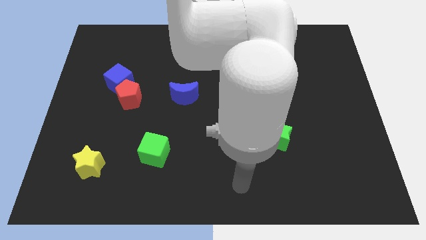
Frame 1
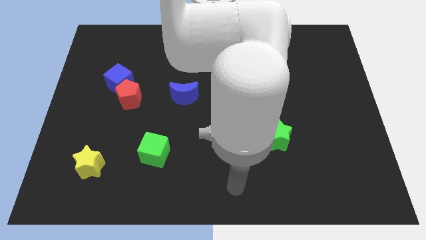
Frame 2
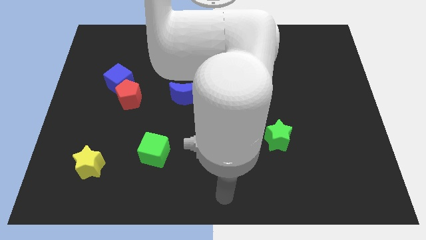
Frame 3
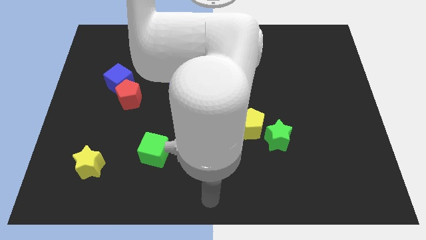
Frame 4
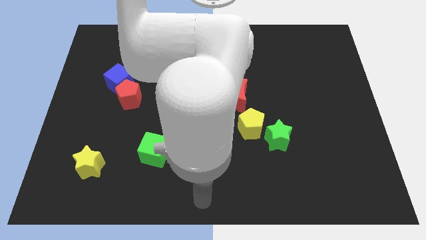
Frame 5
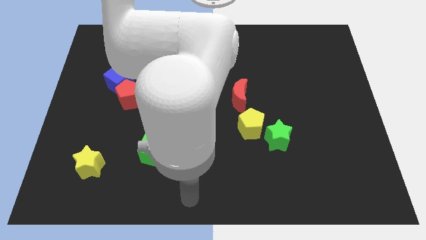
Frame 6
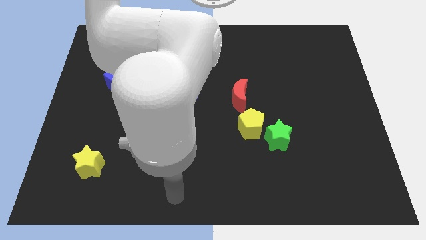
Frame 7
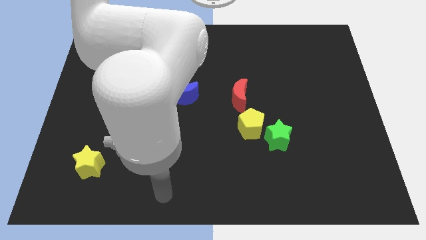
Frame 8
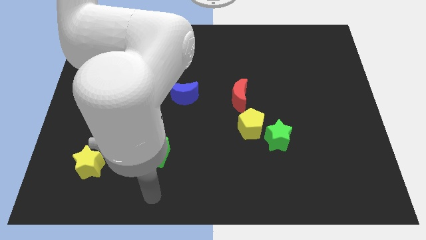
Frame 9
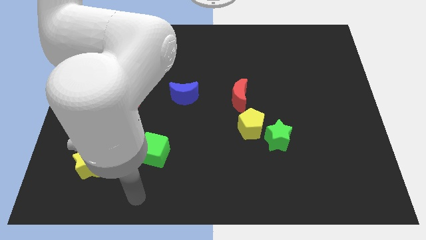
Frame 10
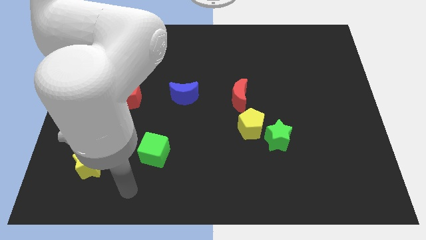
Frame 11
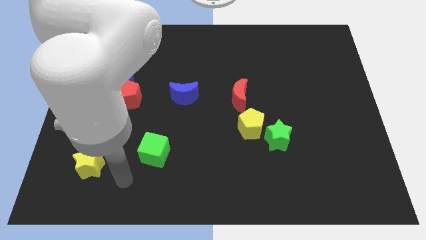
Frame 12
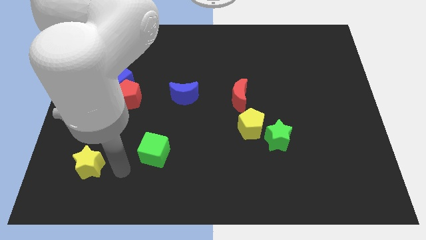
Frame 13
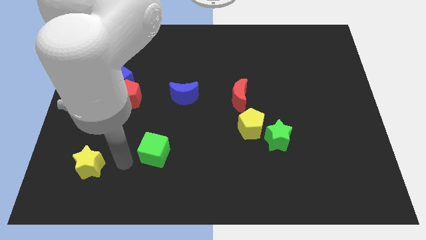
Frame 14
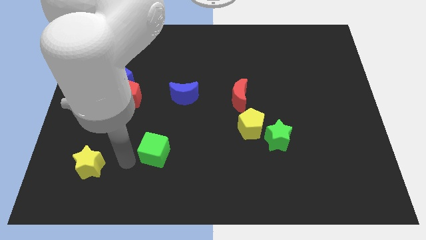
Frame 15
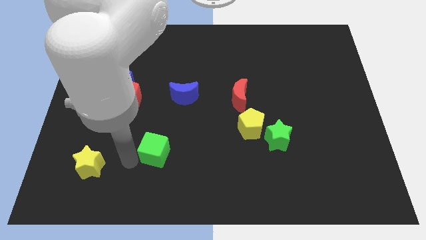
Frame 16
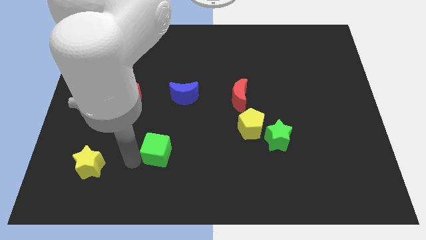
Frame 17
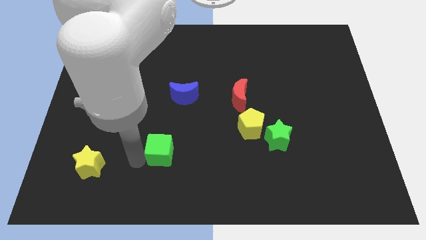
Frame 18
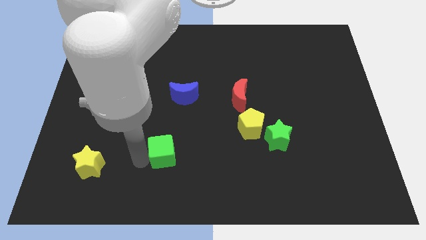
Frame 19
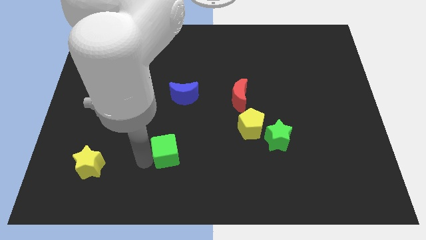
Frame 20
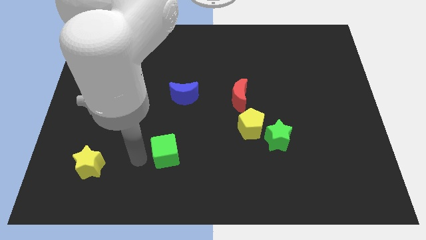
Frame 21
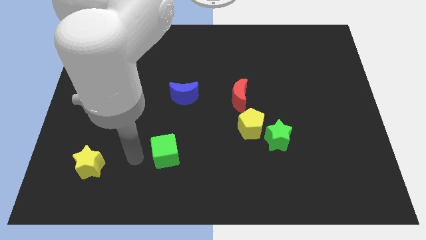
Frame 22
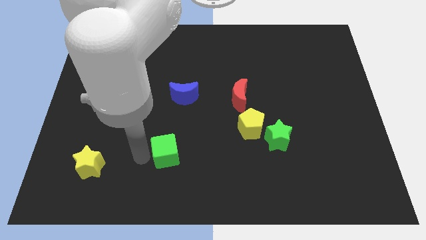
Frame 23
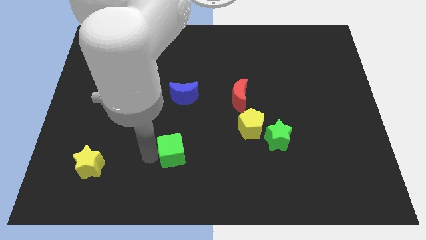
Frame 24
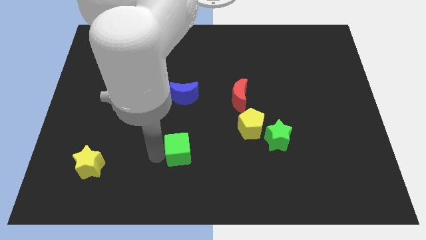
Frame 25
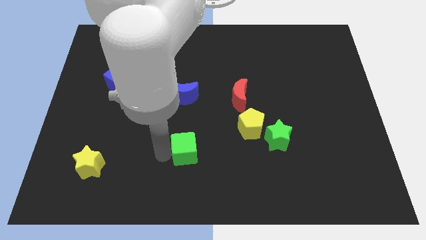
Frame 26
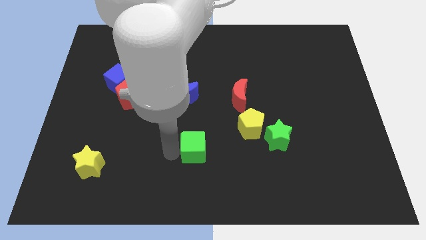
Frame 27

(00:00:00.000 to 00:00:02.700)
slightly move the green cube to the right

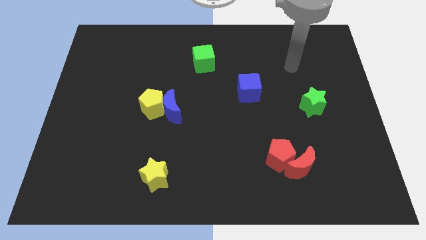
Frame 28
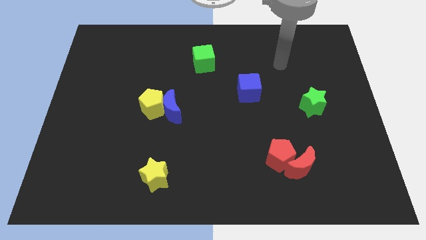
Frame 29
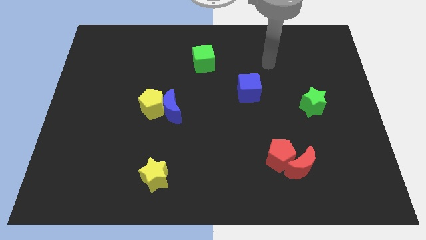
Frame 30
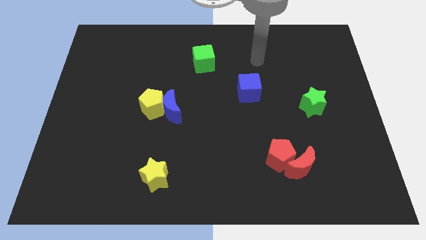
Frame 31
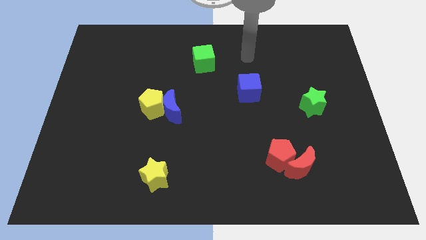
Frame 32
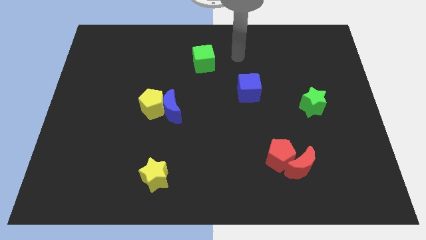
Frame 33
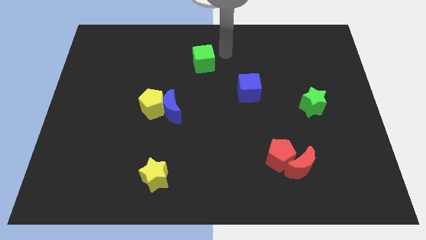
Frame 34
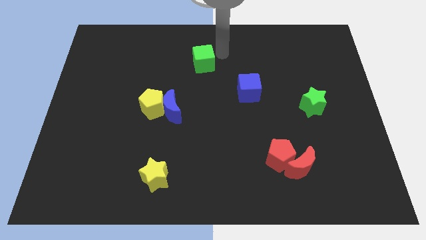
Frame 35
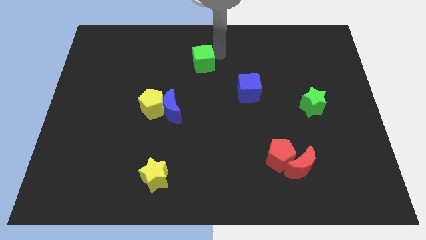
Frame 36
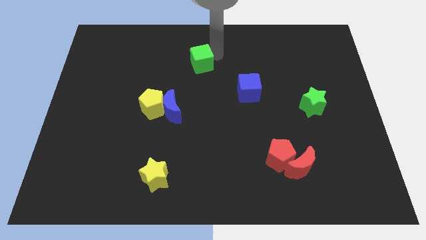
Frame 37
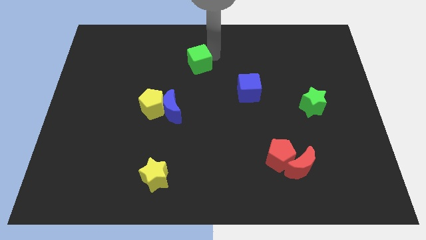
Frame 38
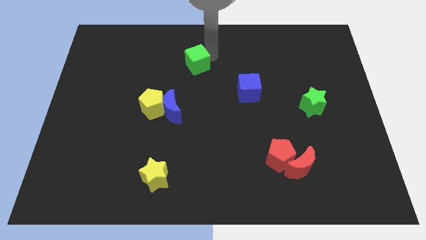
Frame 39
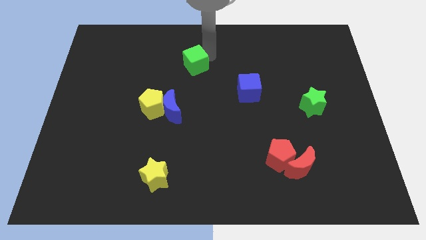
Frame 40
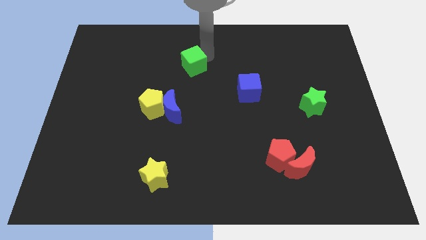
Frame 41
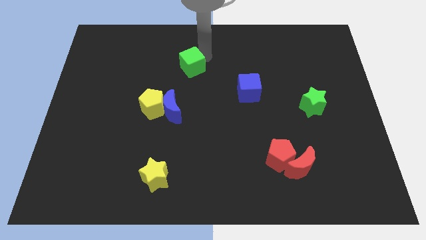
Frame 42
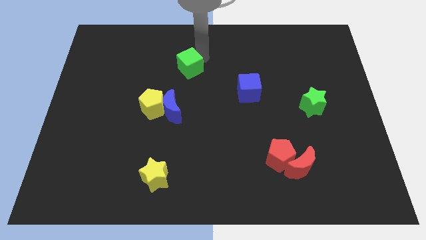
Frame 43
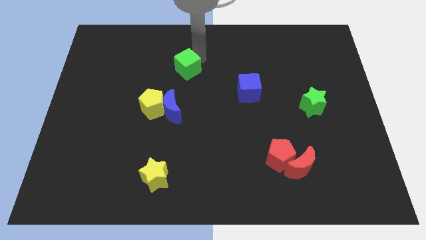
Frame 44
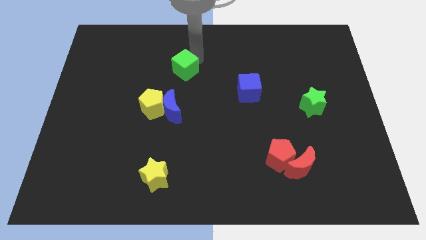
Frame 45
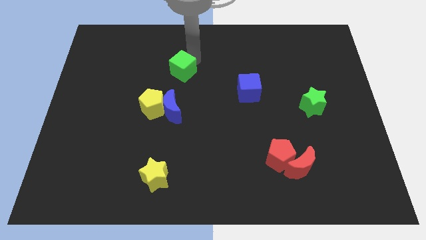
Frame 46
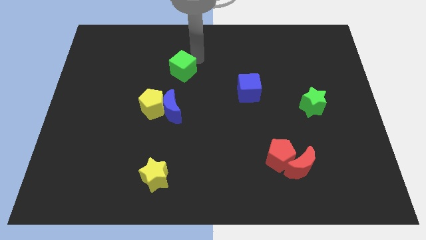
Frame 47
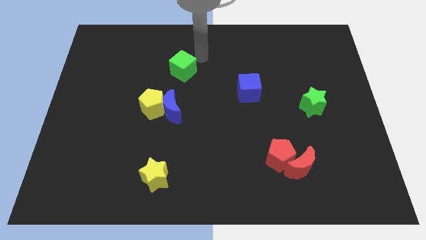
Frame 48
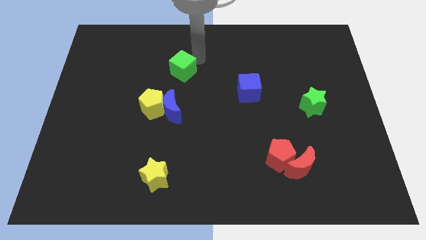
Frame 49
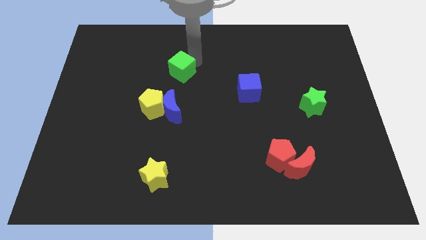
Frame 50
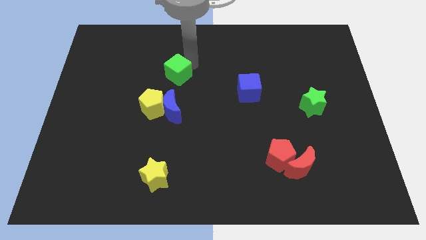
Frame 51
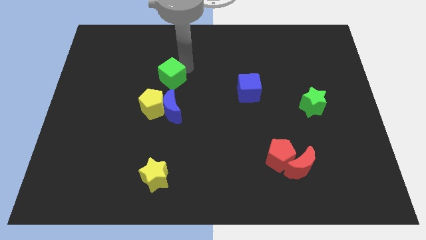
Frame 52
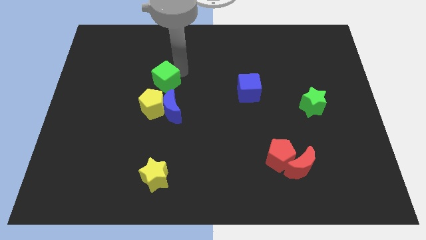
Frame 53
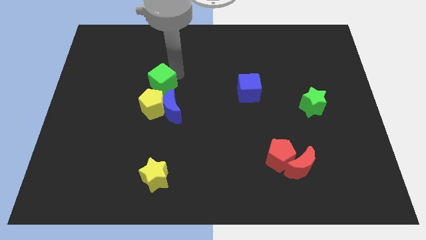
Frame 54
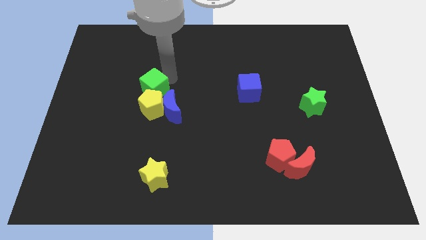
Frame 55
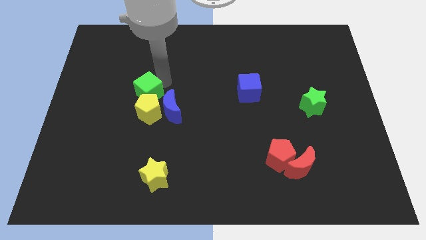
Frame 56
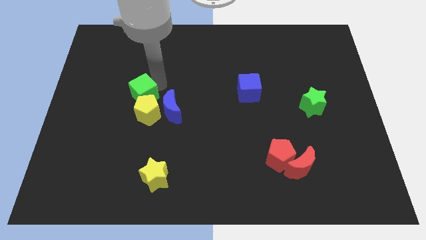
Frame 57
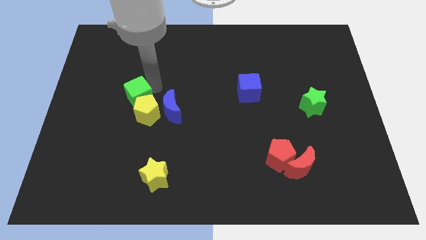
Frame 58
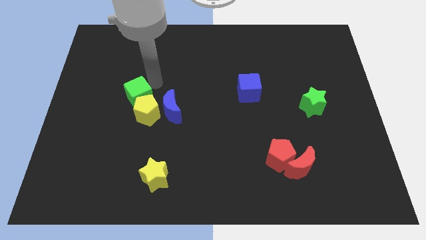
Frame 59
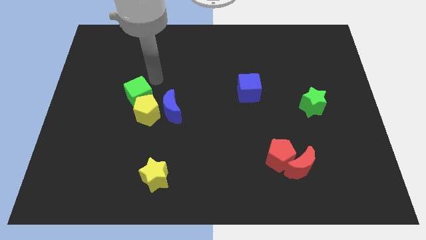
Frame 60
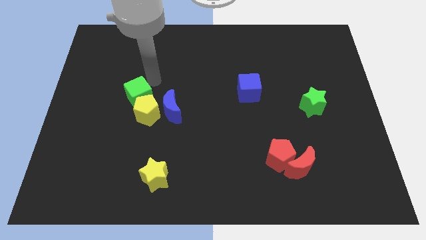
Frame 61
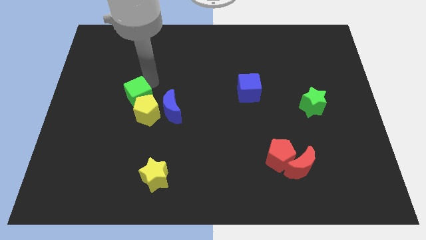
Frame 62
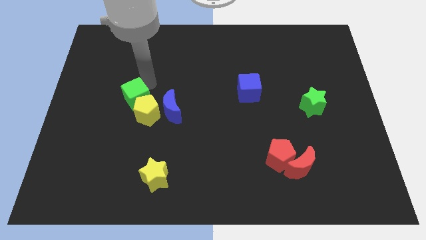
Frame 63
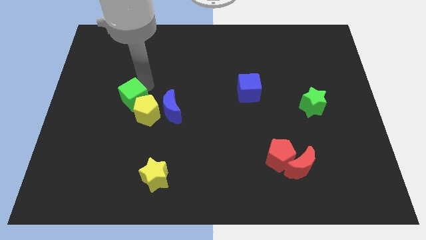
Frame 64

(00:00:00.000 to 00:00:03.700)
push the green cube diagonally downwards and left

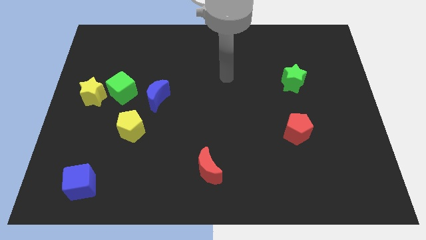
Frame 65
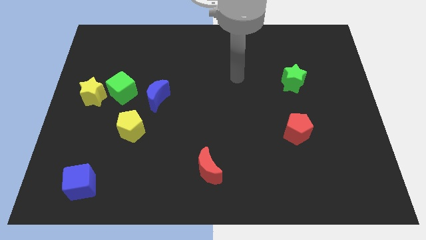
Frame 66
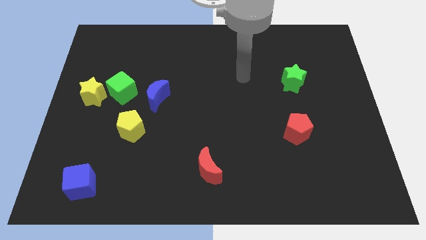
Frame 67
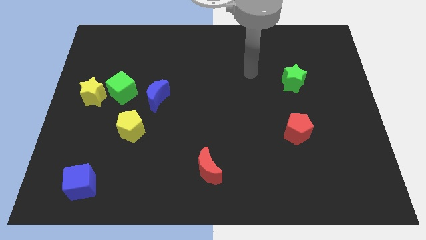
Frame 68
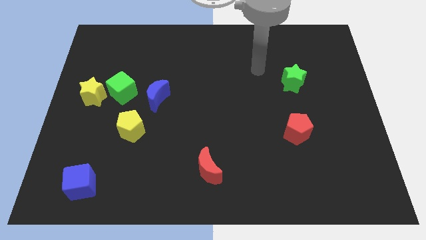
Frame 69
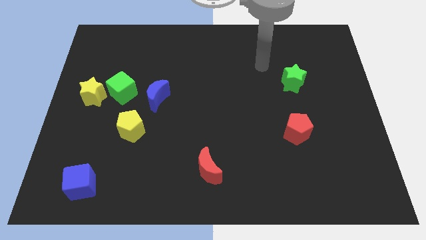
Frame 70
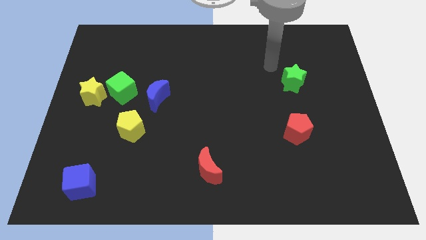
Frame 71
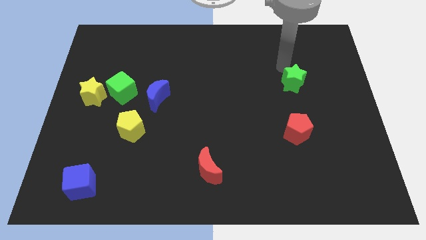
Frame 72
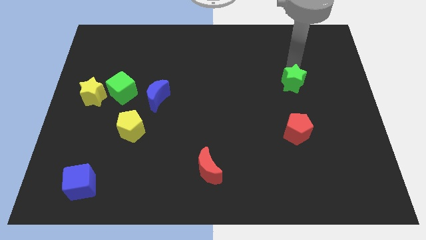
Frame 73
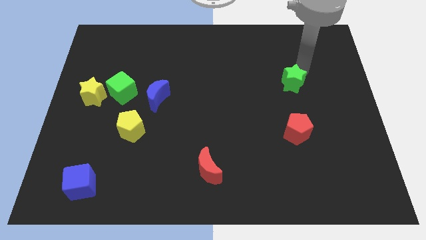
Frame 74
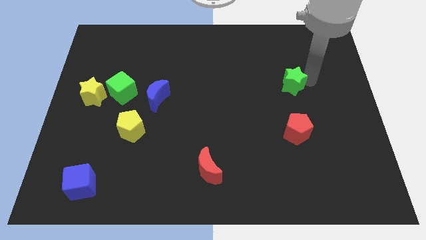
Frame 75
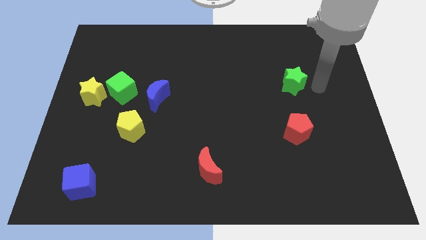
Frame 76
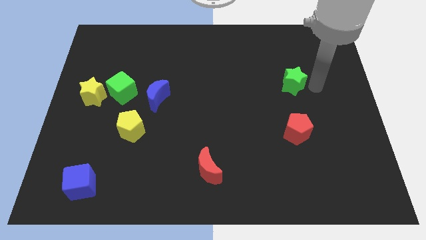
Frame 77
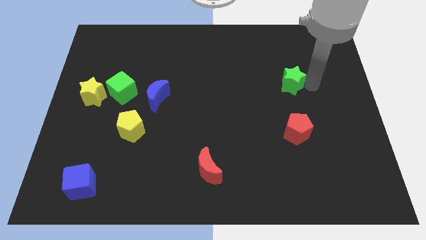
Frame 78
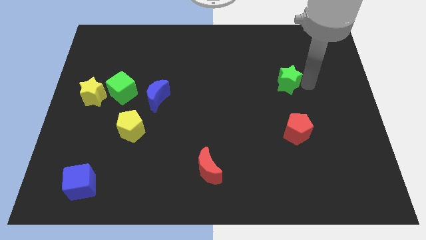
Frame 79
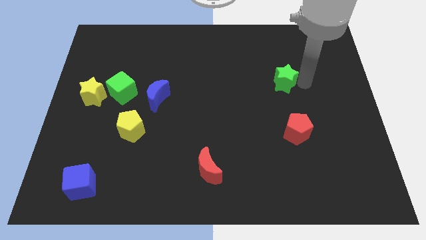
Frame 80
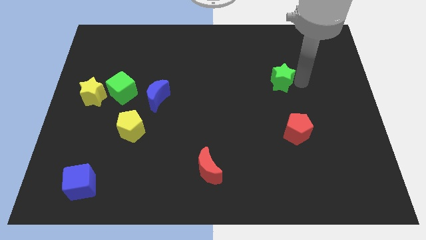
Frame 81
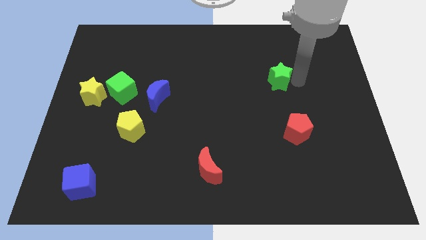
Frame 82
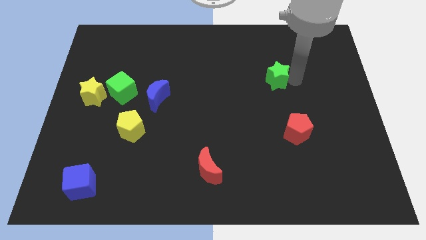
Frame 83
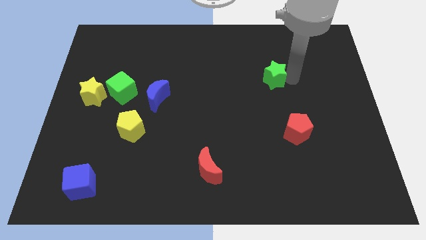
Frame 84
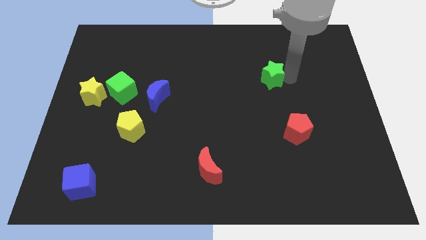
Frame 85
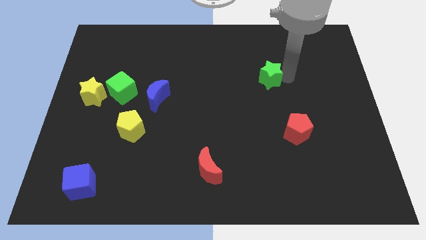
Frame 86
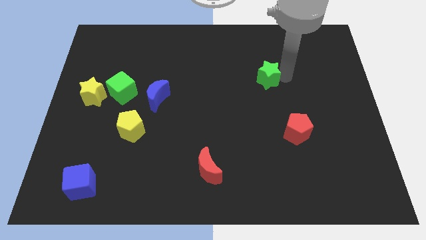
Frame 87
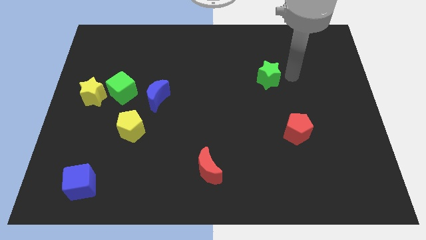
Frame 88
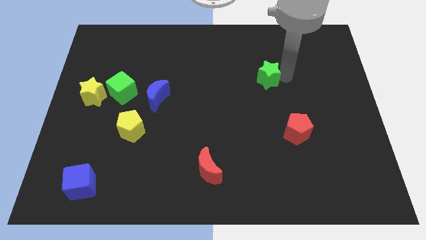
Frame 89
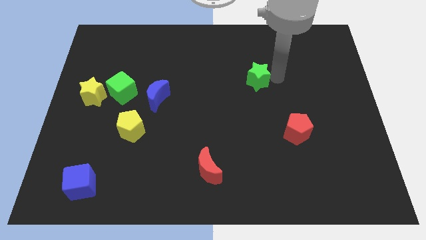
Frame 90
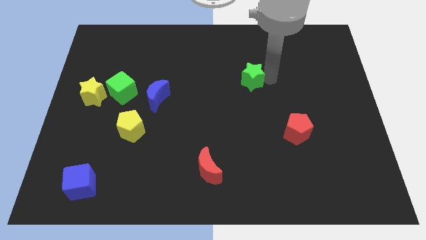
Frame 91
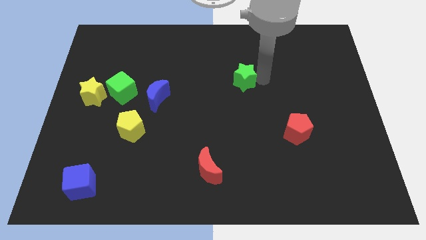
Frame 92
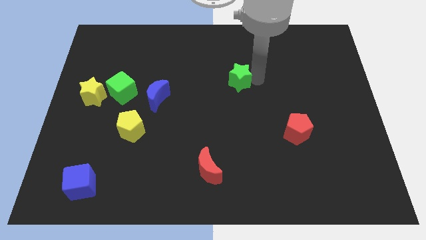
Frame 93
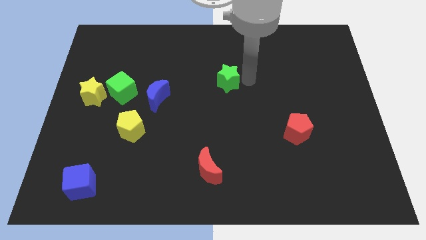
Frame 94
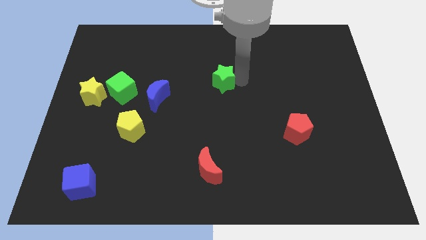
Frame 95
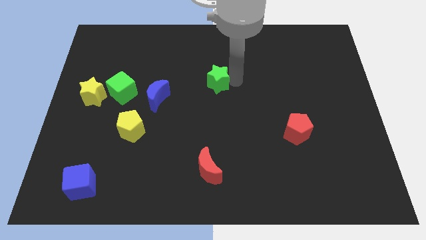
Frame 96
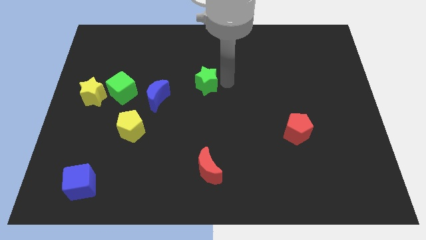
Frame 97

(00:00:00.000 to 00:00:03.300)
slide the green star left
